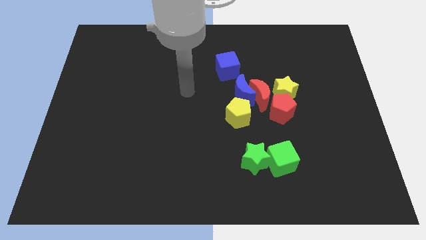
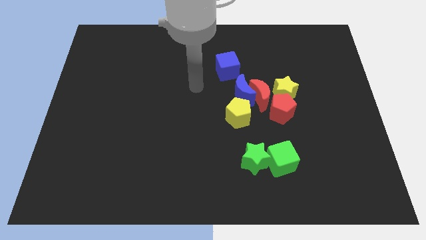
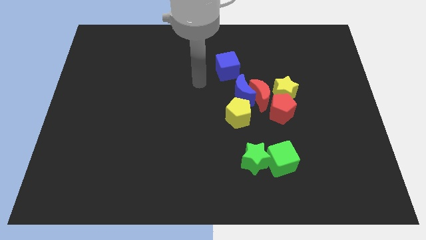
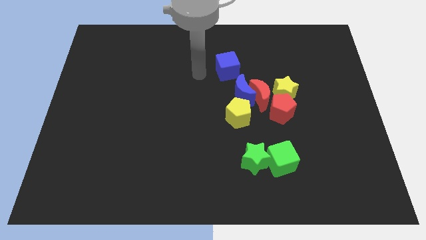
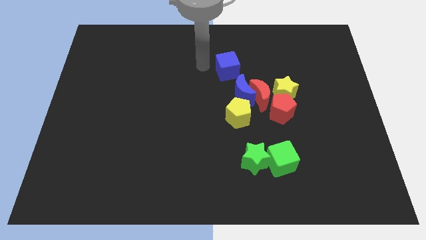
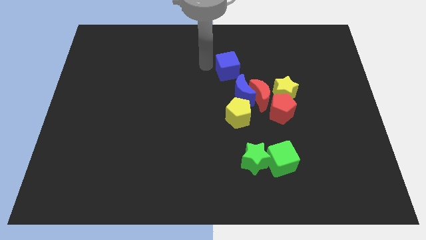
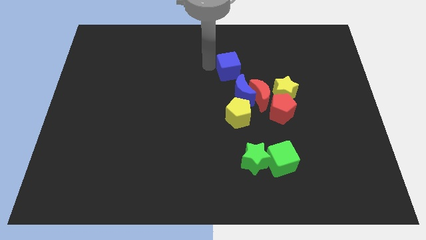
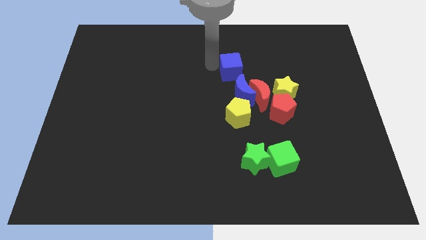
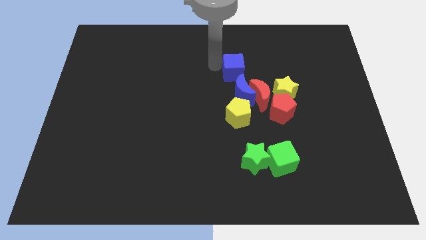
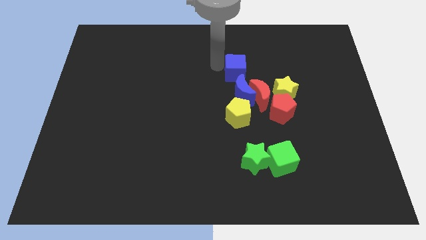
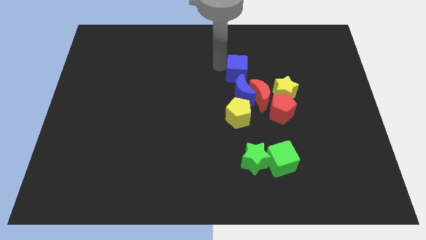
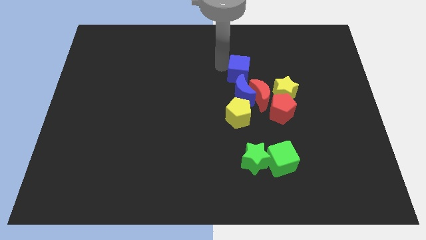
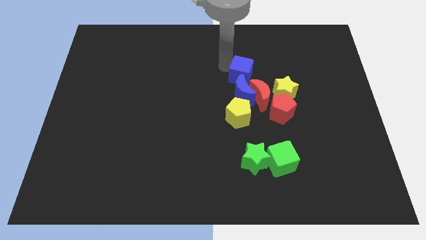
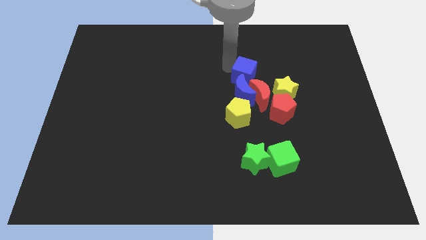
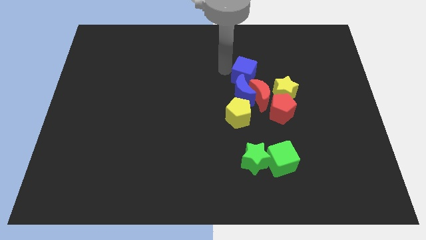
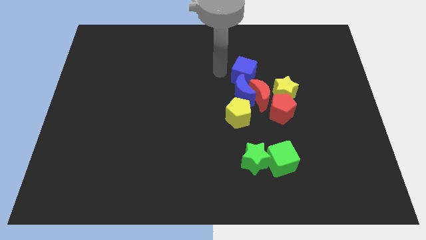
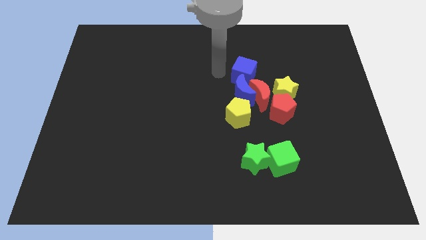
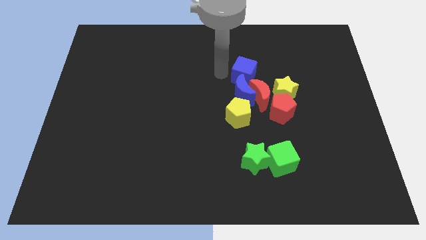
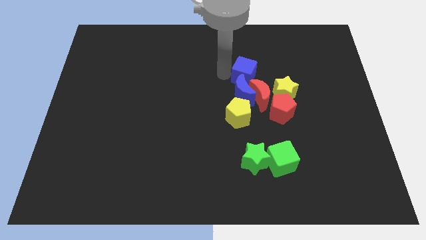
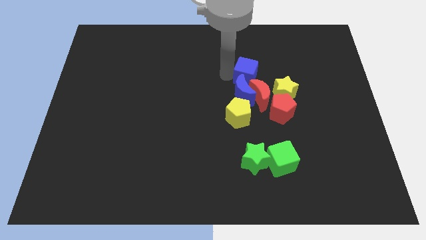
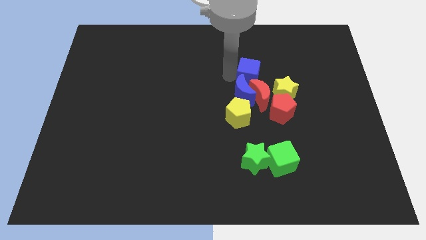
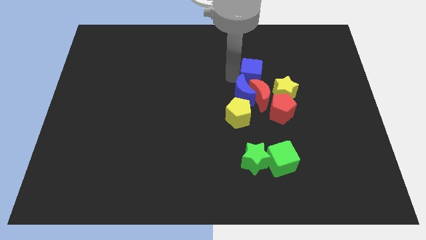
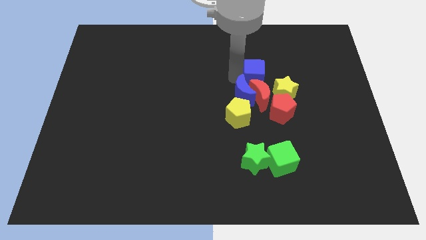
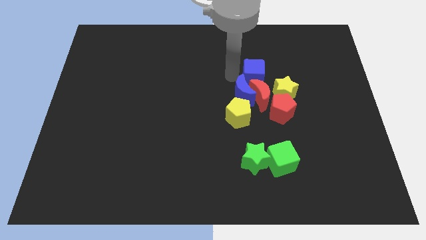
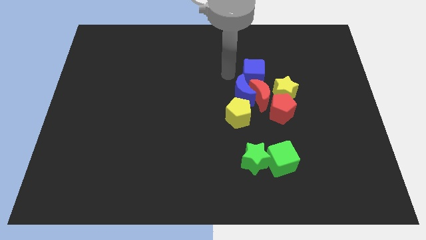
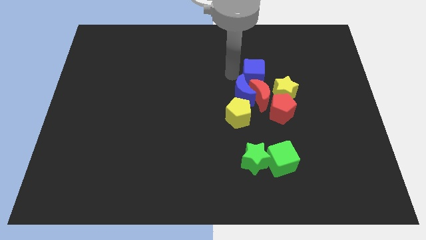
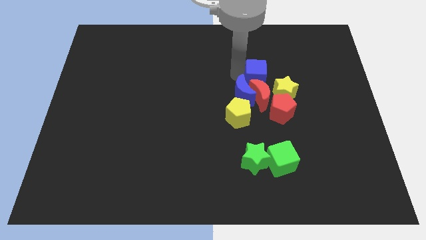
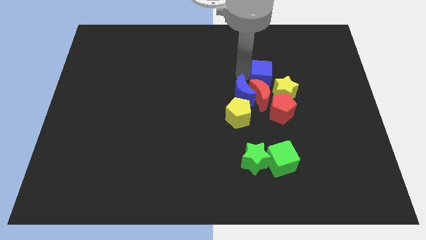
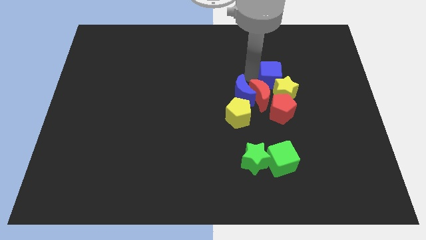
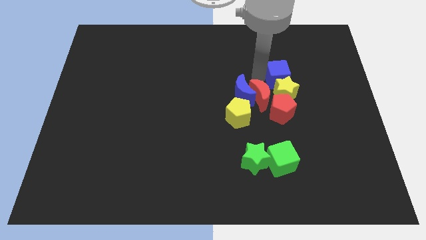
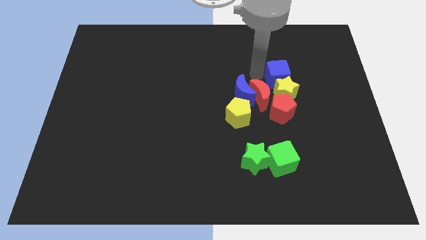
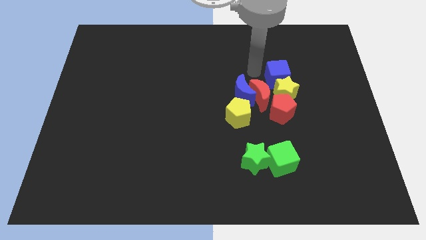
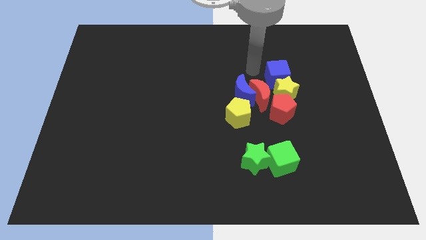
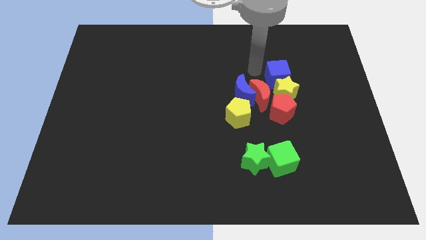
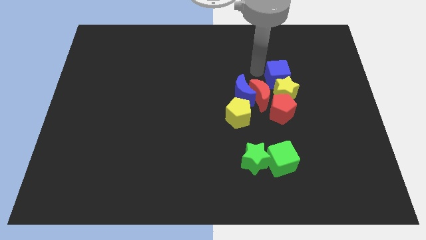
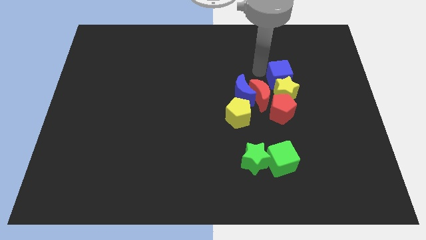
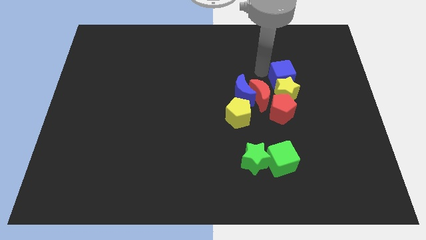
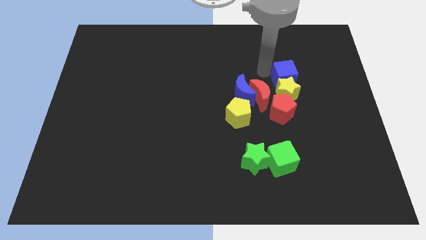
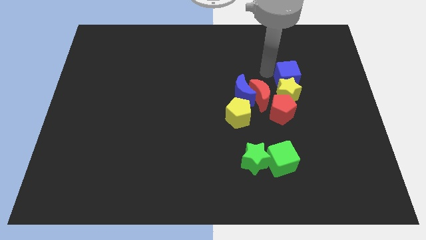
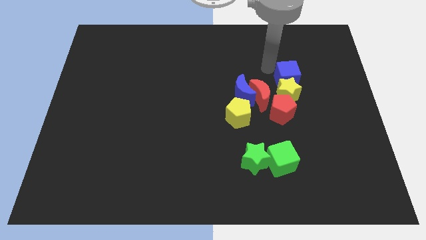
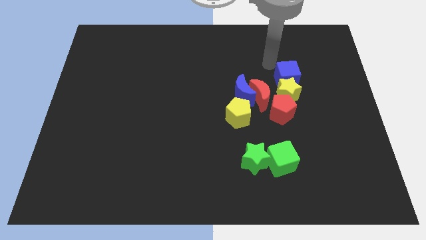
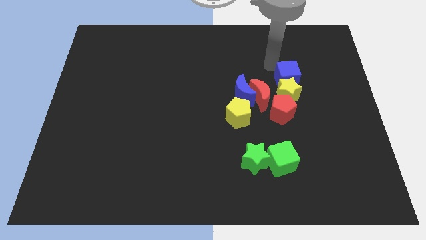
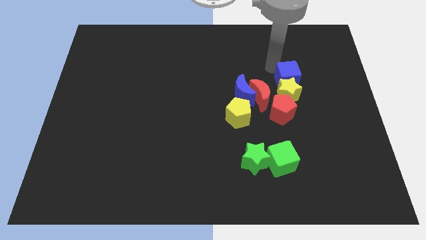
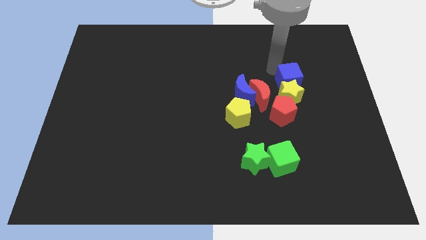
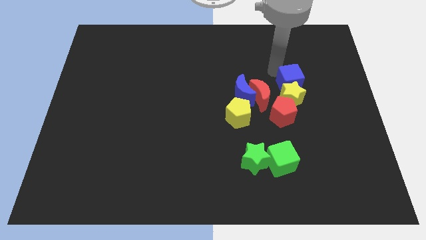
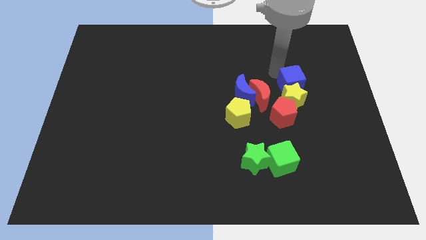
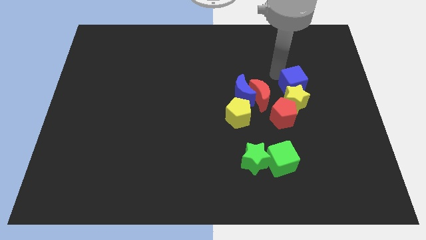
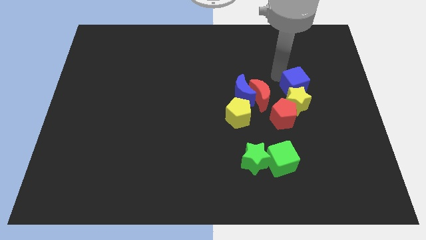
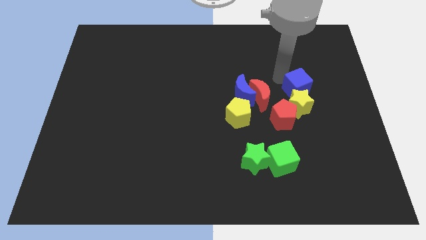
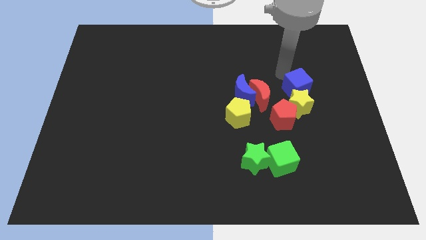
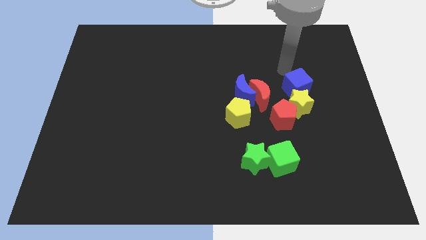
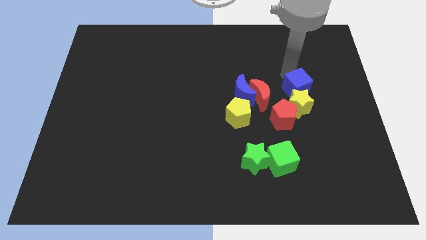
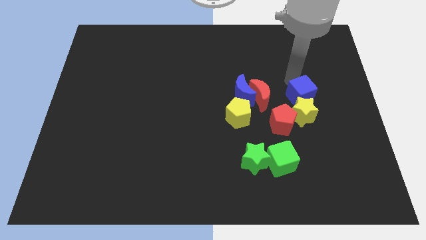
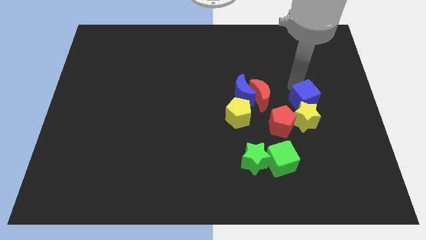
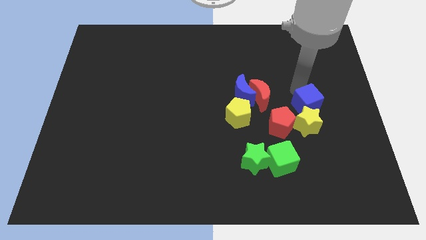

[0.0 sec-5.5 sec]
move the blue cube diagonally down and right

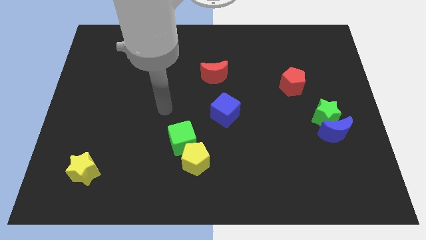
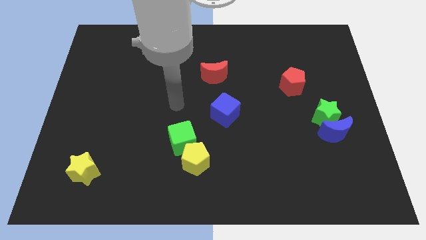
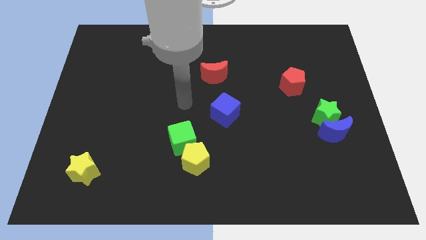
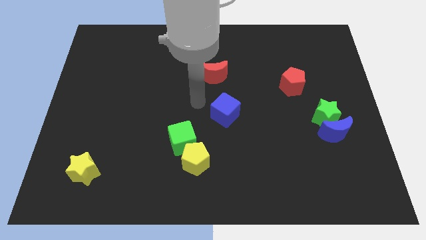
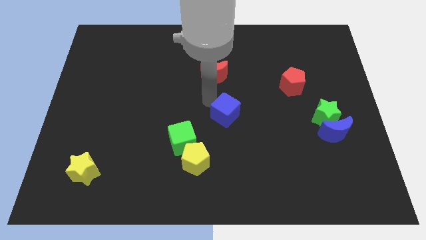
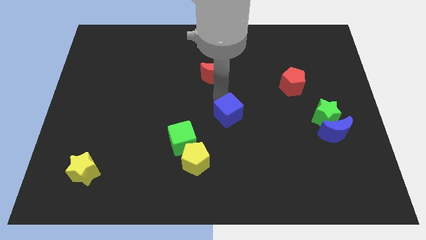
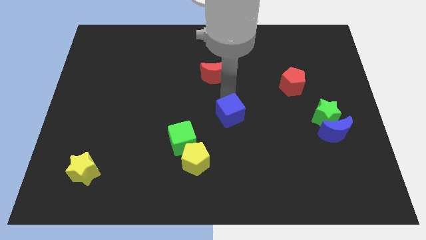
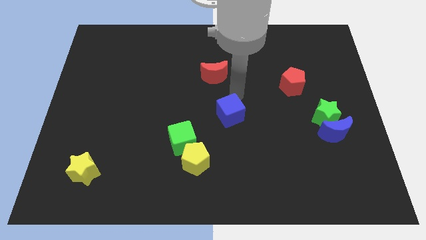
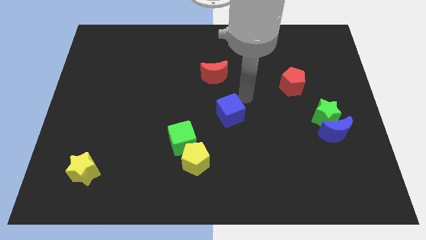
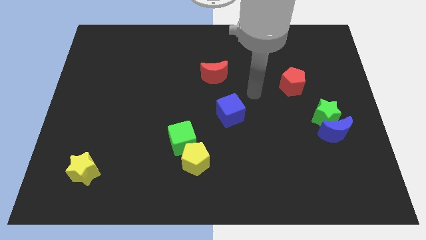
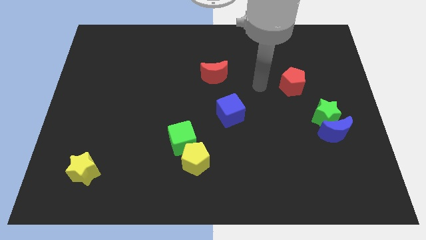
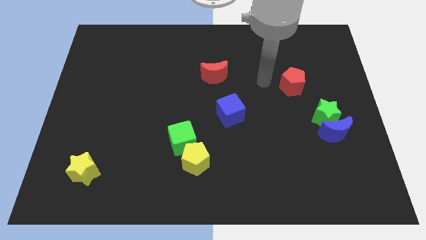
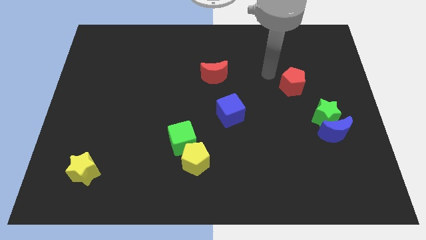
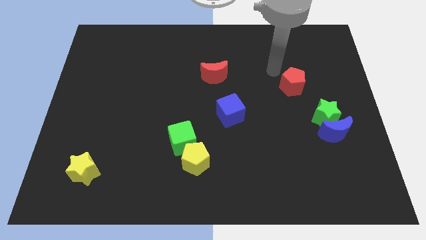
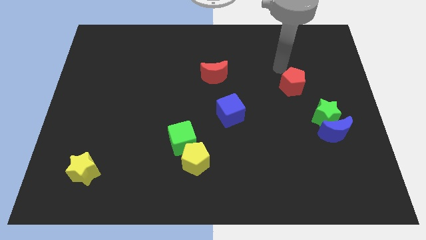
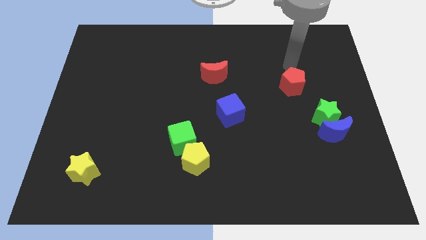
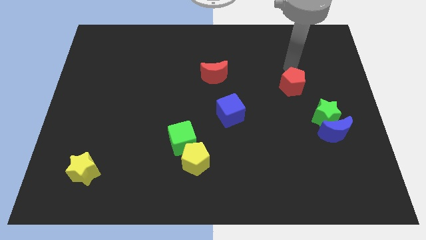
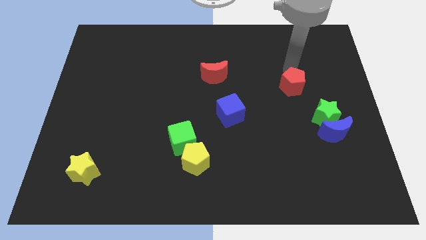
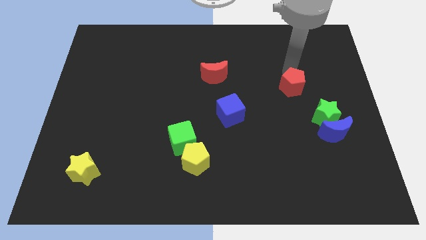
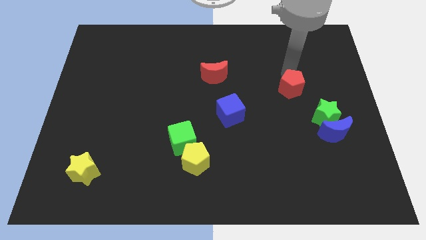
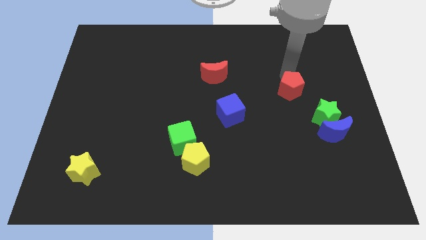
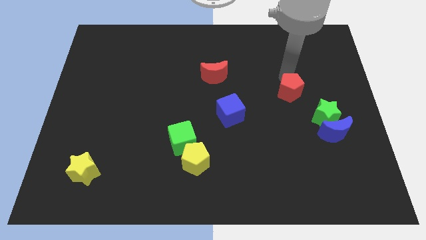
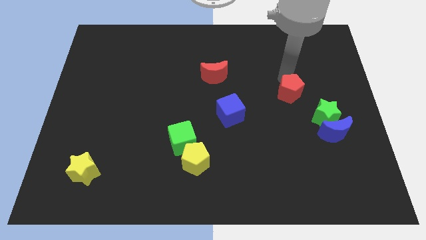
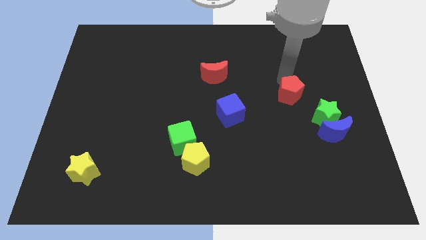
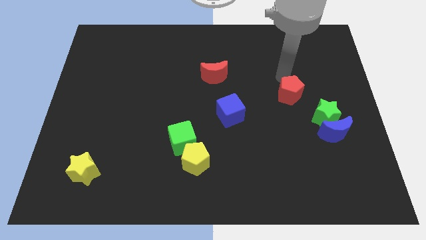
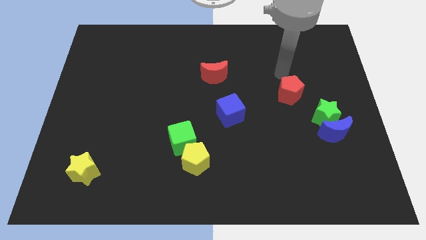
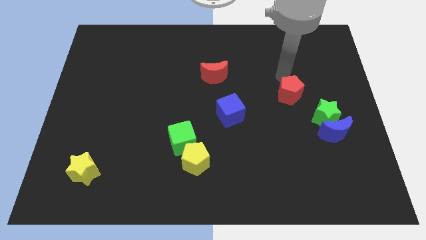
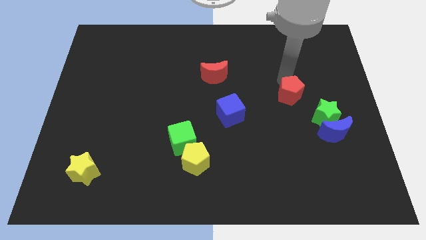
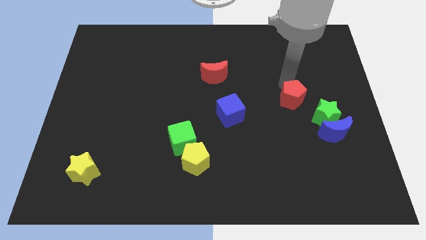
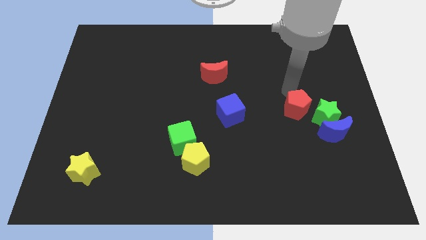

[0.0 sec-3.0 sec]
slightly slide the red pentagon downwards
